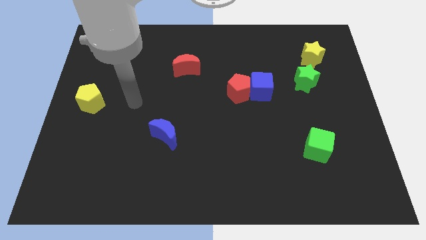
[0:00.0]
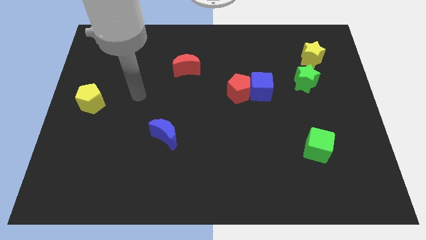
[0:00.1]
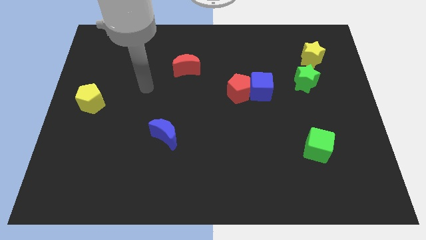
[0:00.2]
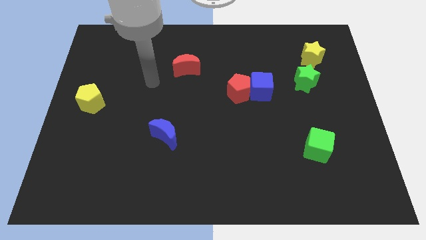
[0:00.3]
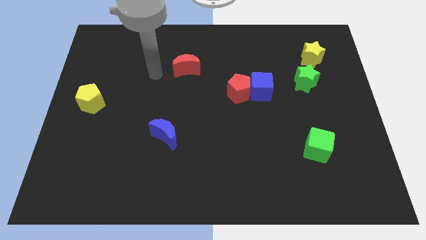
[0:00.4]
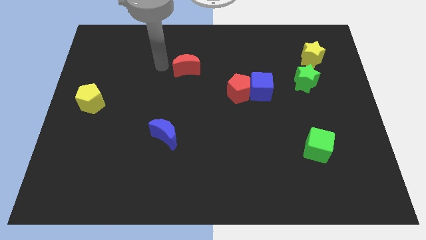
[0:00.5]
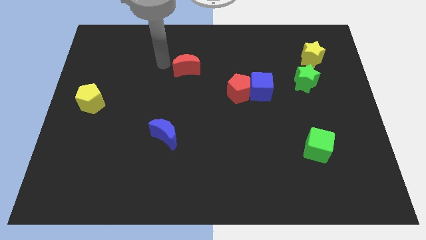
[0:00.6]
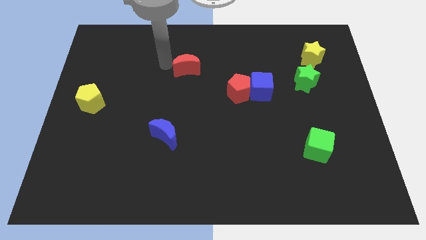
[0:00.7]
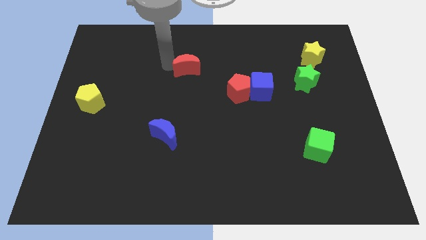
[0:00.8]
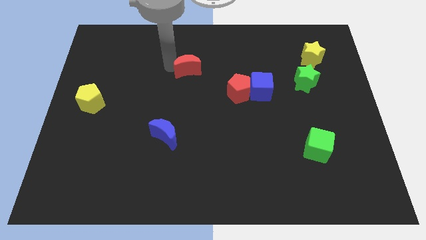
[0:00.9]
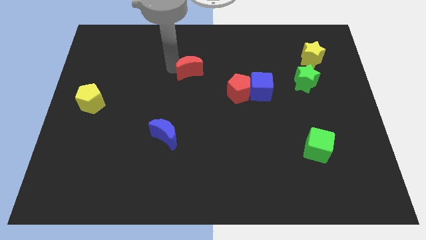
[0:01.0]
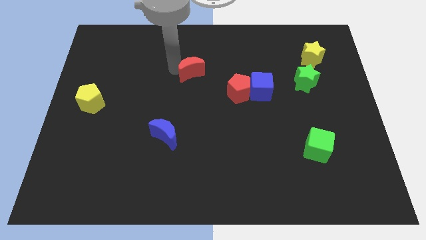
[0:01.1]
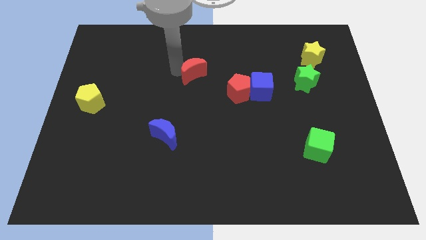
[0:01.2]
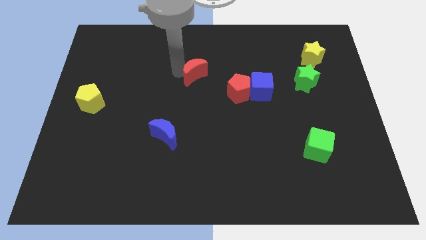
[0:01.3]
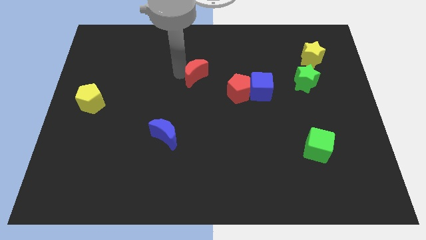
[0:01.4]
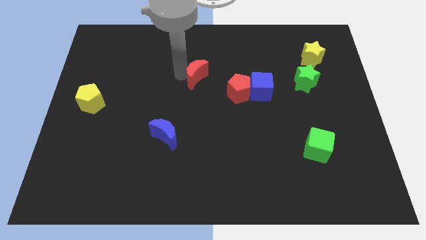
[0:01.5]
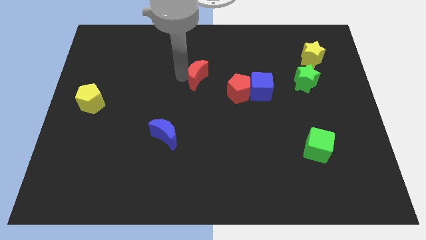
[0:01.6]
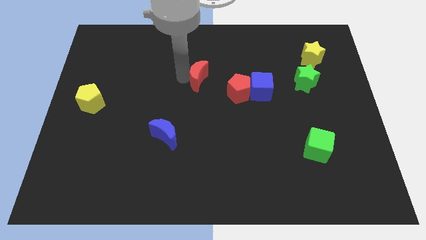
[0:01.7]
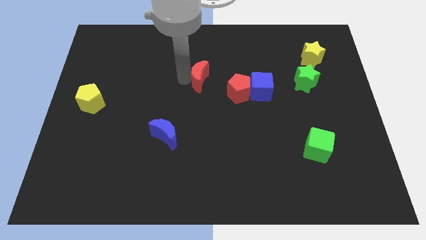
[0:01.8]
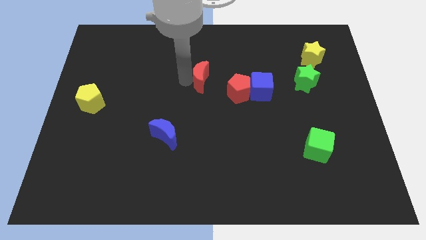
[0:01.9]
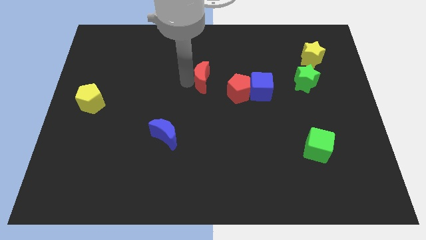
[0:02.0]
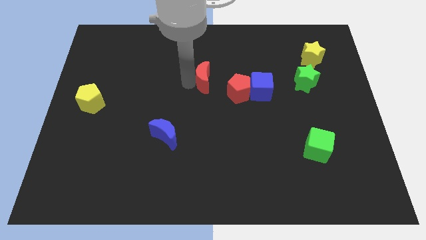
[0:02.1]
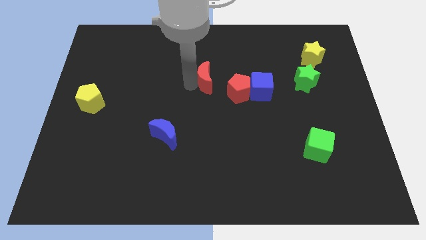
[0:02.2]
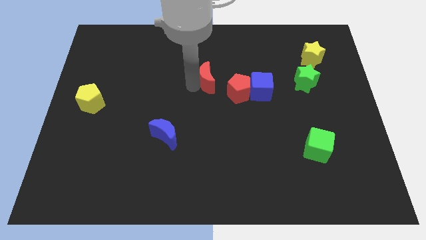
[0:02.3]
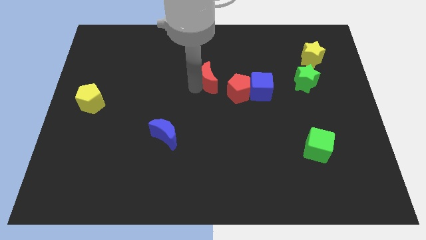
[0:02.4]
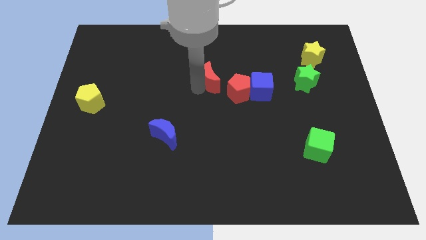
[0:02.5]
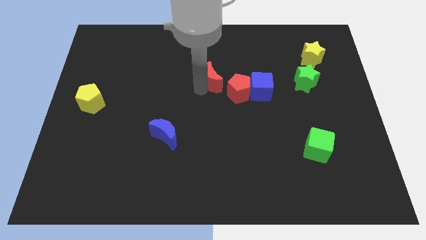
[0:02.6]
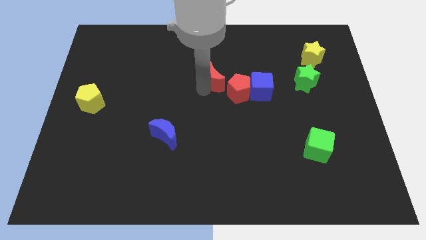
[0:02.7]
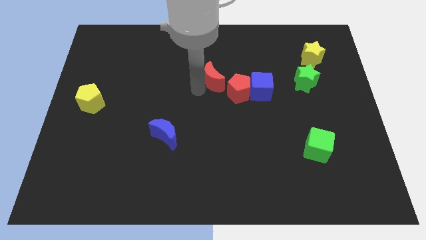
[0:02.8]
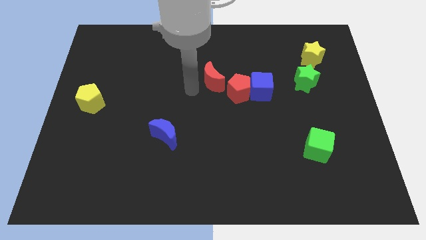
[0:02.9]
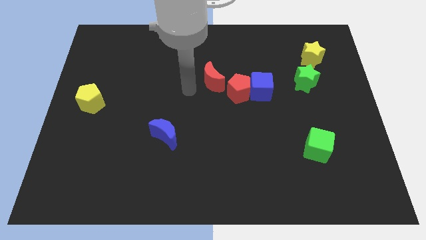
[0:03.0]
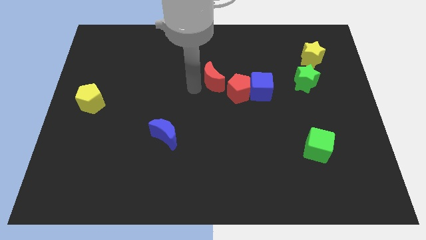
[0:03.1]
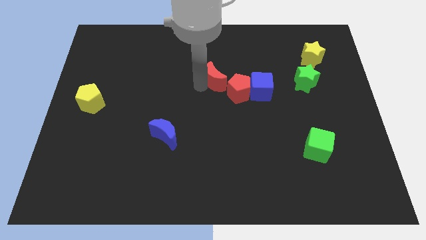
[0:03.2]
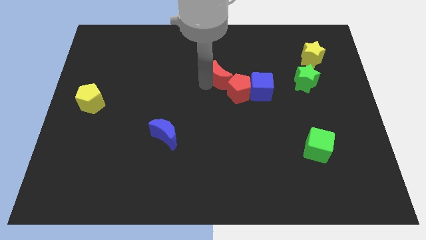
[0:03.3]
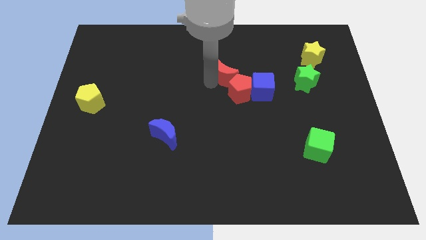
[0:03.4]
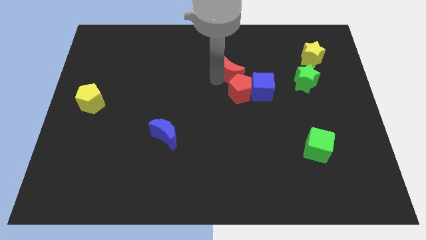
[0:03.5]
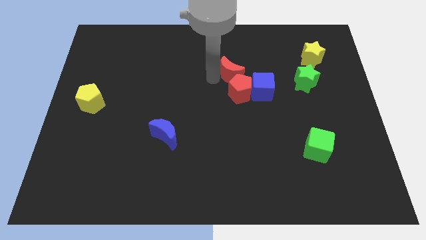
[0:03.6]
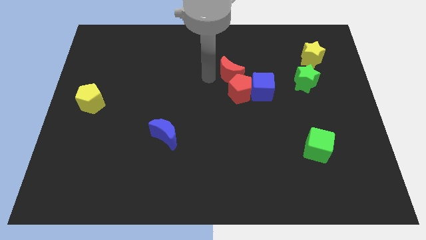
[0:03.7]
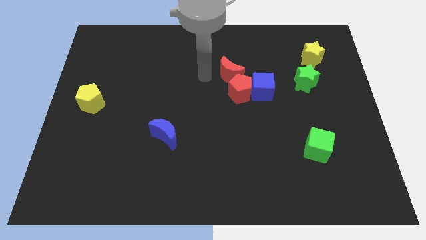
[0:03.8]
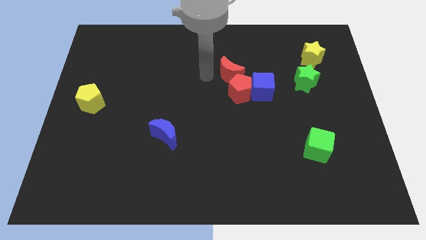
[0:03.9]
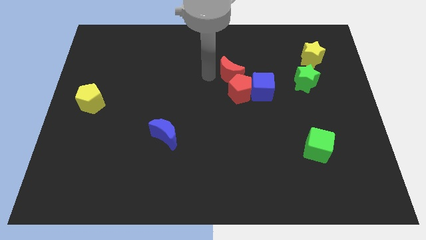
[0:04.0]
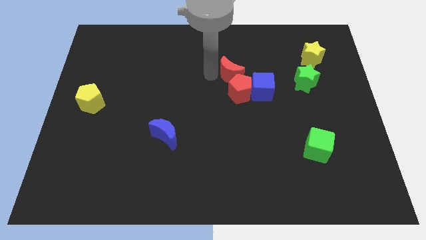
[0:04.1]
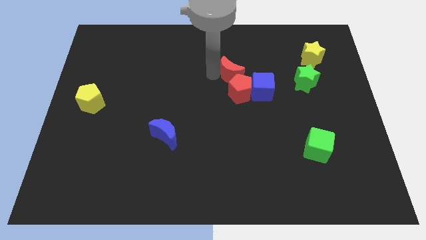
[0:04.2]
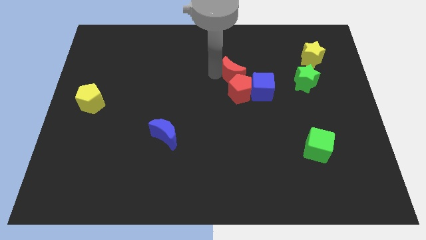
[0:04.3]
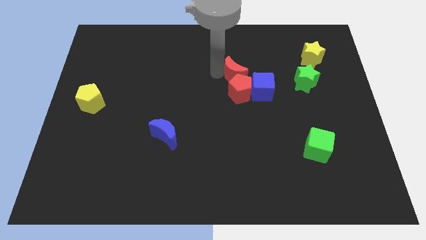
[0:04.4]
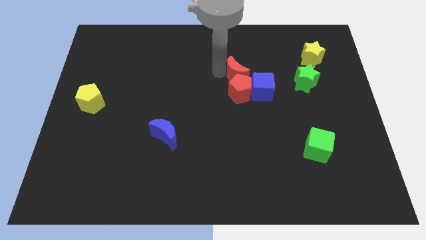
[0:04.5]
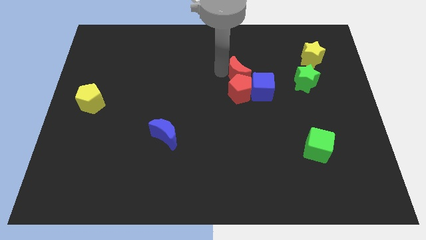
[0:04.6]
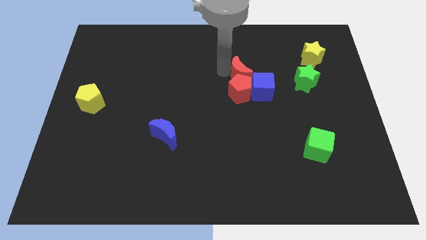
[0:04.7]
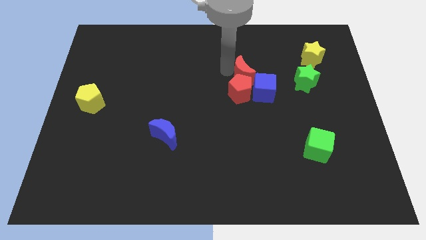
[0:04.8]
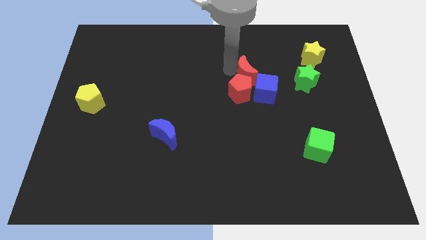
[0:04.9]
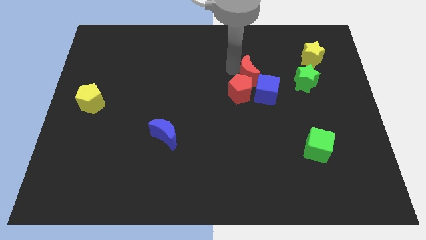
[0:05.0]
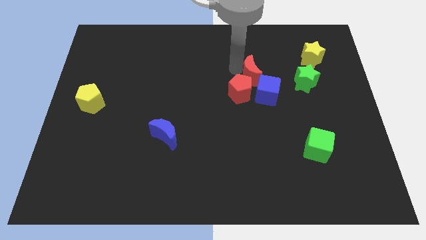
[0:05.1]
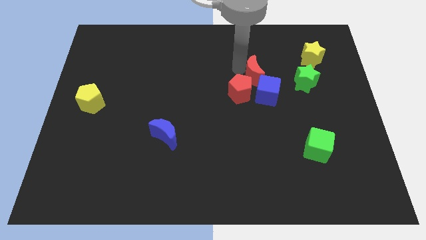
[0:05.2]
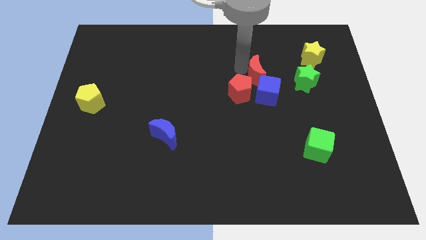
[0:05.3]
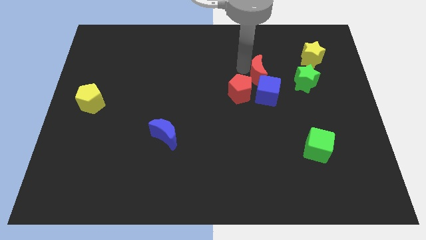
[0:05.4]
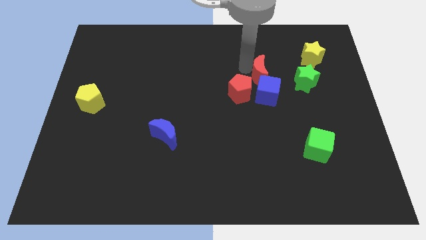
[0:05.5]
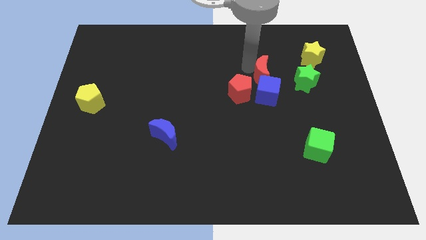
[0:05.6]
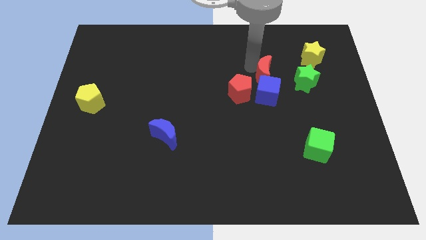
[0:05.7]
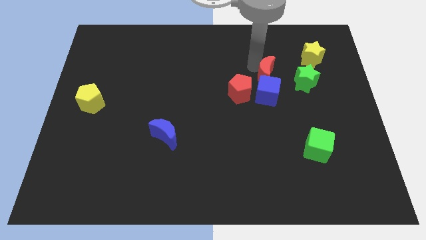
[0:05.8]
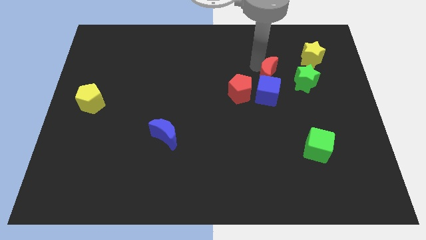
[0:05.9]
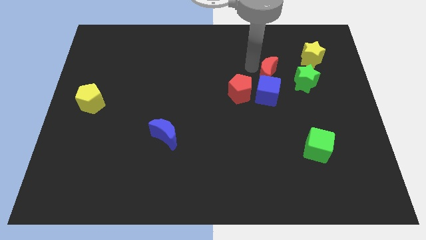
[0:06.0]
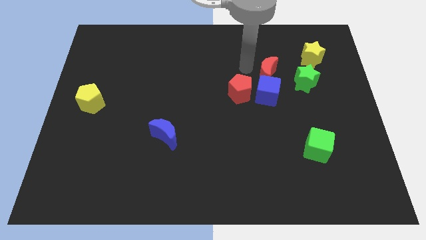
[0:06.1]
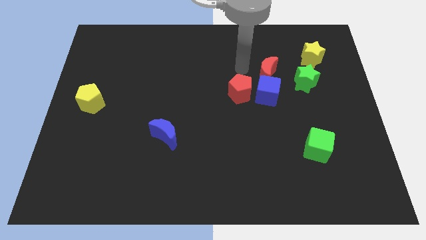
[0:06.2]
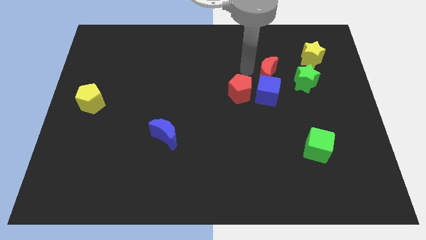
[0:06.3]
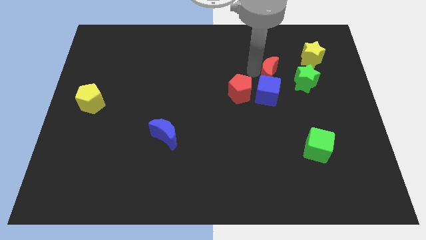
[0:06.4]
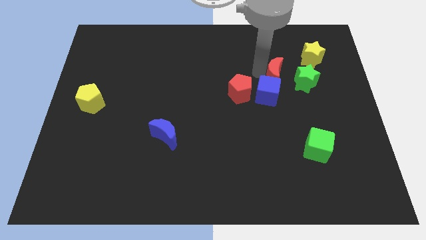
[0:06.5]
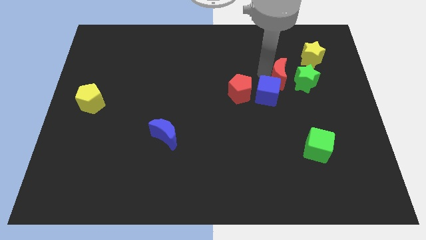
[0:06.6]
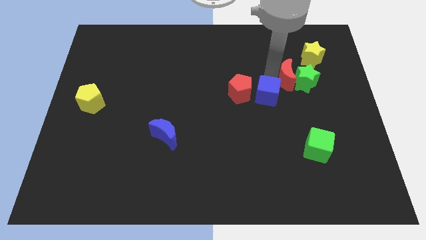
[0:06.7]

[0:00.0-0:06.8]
move the red moon next to the green star

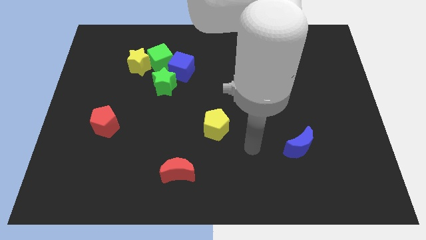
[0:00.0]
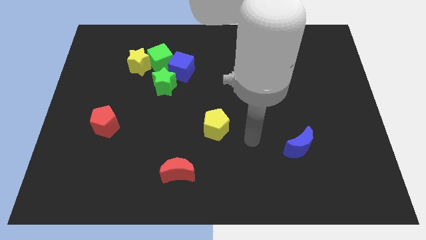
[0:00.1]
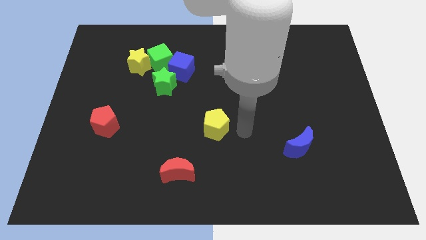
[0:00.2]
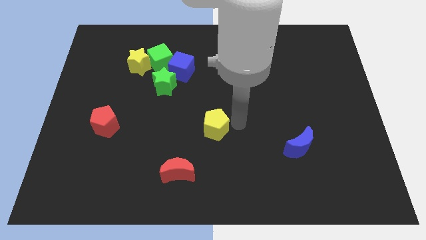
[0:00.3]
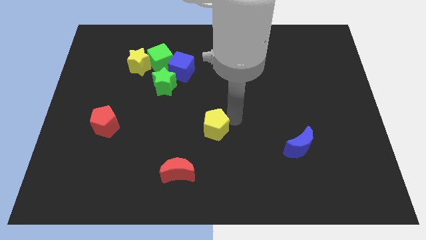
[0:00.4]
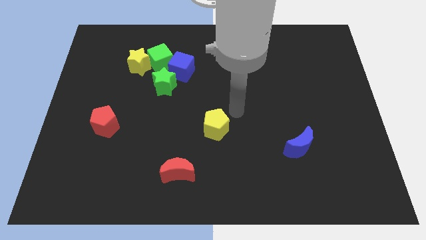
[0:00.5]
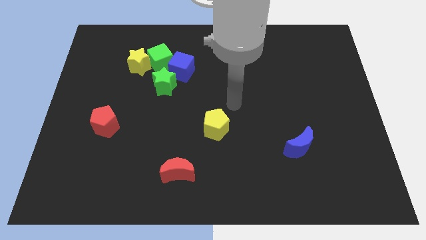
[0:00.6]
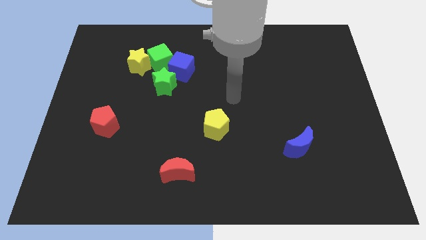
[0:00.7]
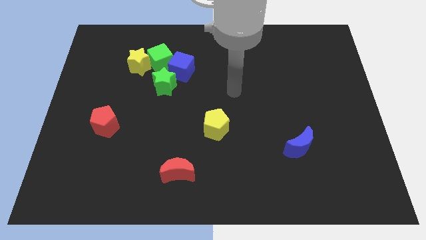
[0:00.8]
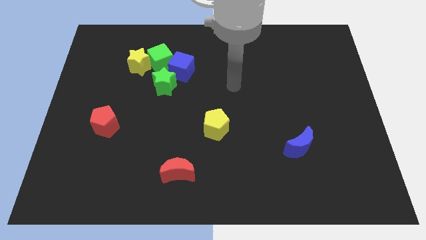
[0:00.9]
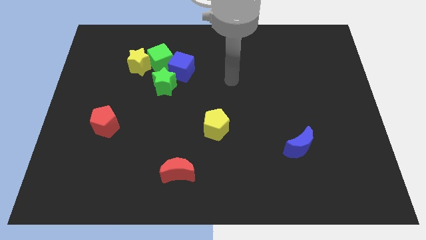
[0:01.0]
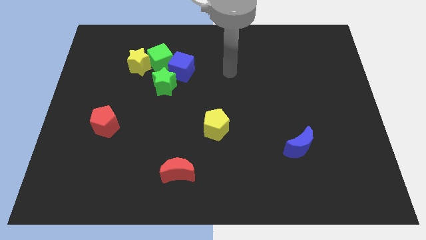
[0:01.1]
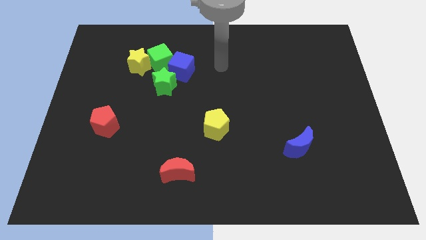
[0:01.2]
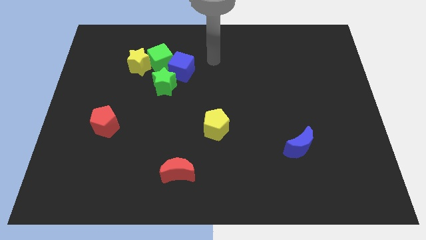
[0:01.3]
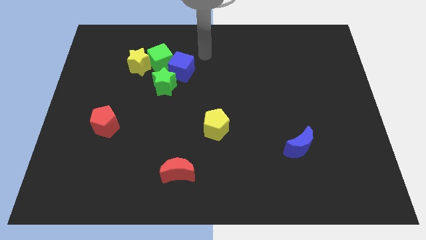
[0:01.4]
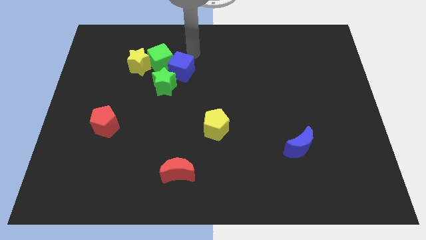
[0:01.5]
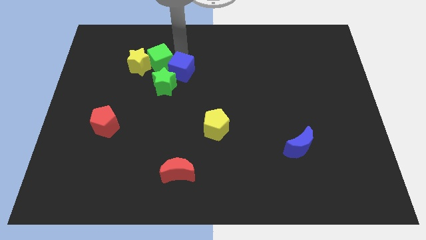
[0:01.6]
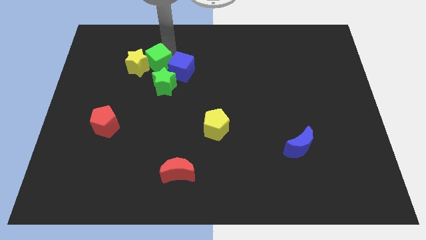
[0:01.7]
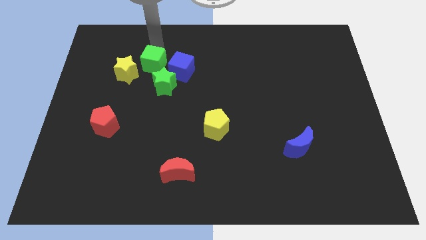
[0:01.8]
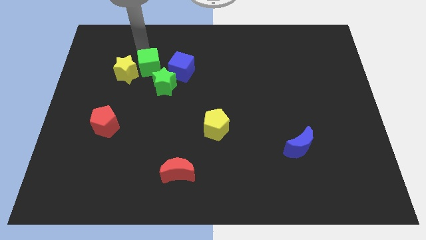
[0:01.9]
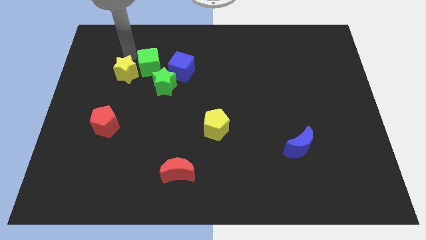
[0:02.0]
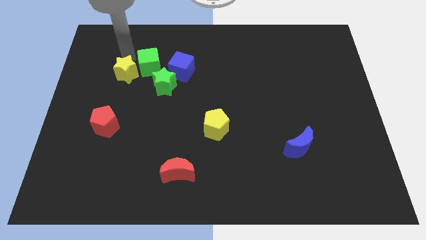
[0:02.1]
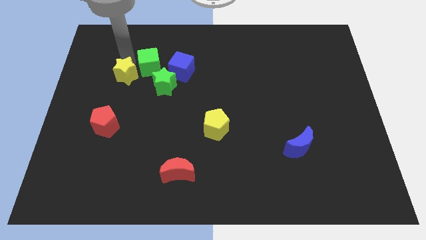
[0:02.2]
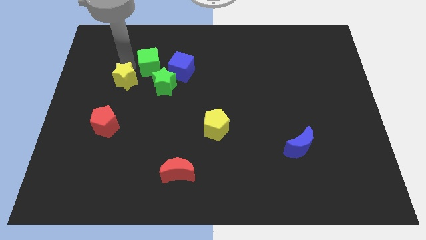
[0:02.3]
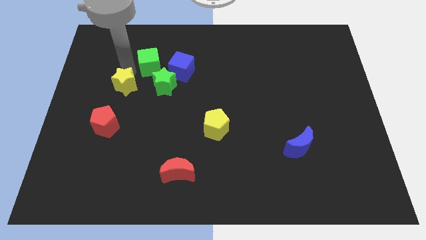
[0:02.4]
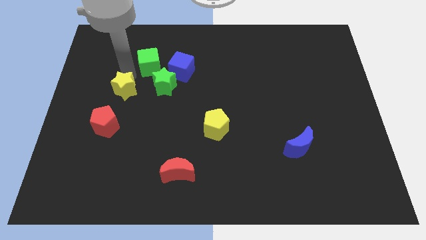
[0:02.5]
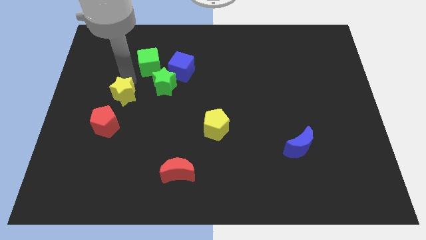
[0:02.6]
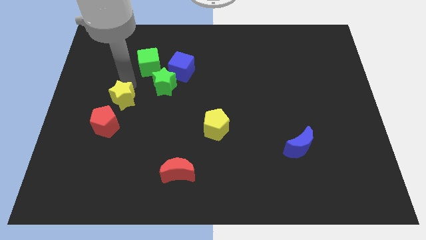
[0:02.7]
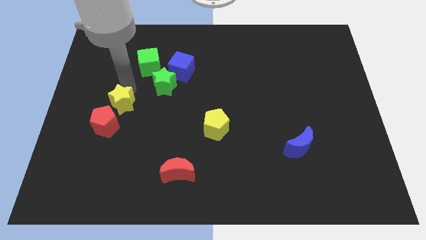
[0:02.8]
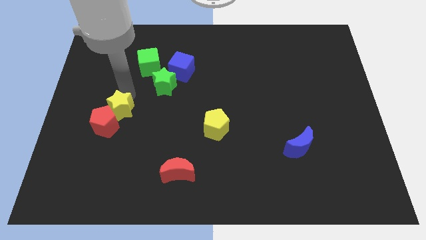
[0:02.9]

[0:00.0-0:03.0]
put the yellow star next to the red pentagon
